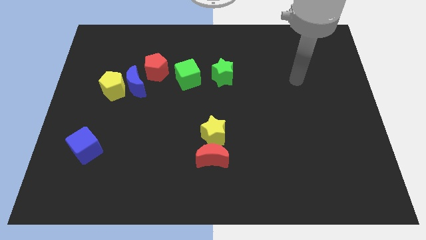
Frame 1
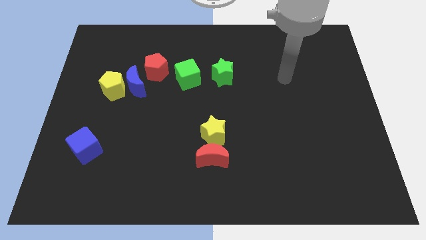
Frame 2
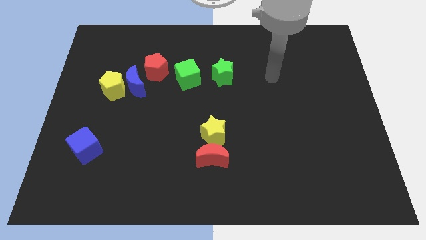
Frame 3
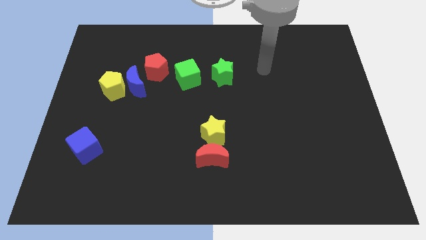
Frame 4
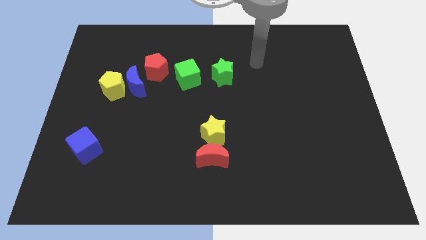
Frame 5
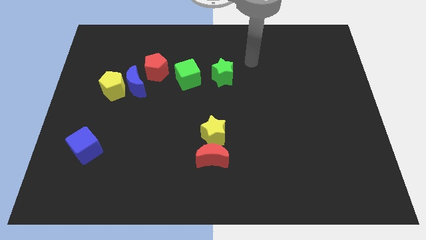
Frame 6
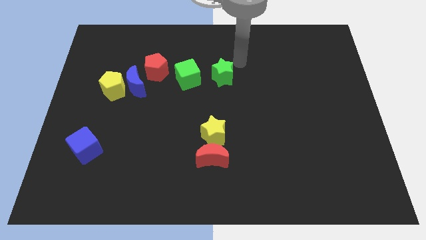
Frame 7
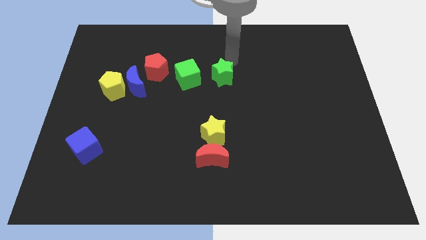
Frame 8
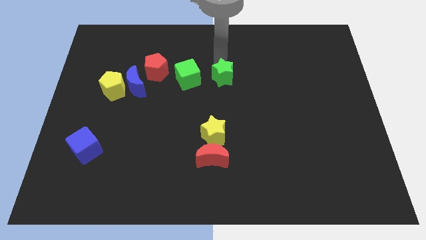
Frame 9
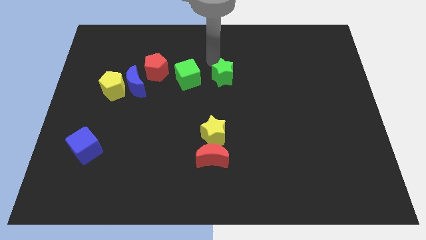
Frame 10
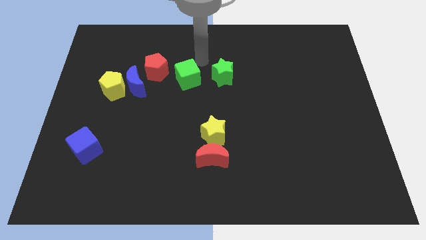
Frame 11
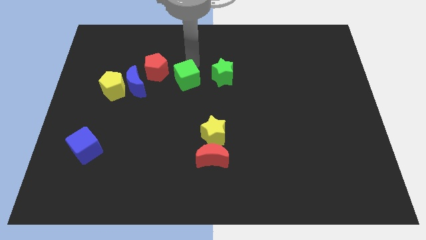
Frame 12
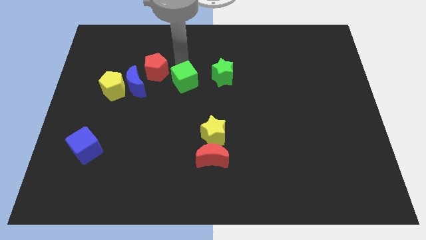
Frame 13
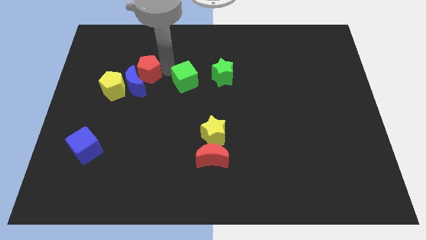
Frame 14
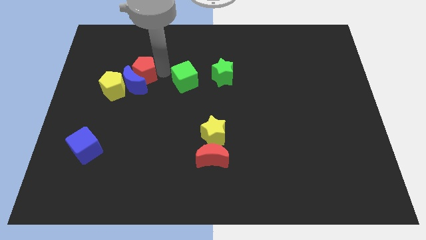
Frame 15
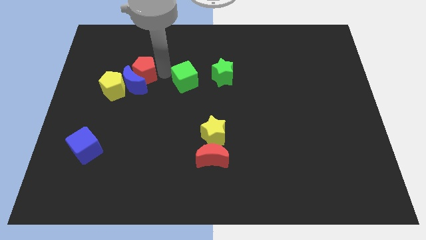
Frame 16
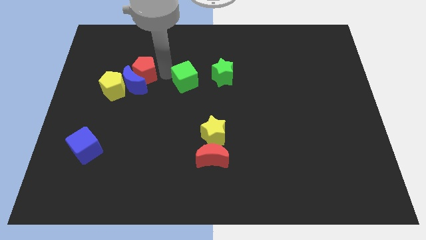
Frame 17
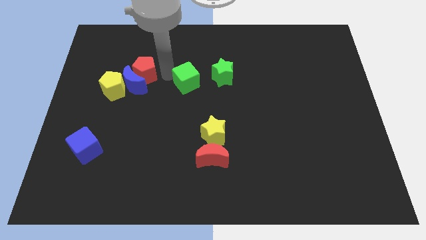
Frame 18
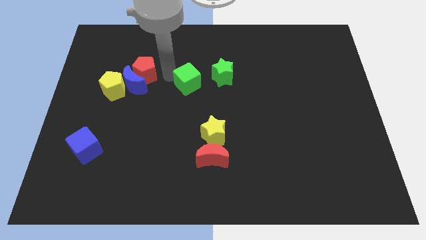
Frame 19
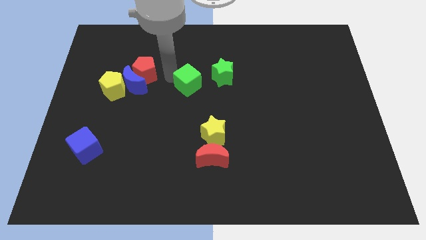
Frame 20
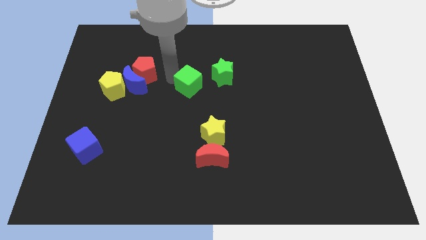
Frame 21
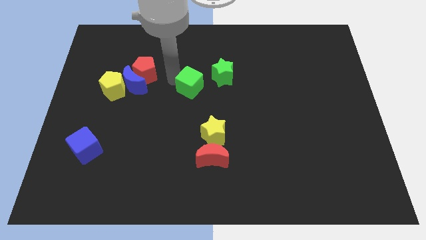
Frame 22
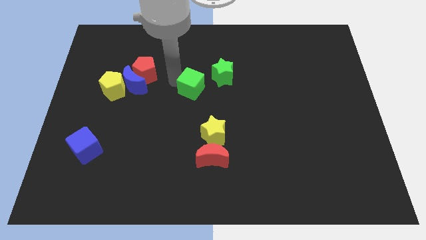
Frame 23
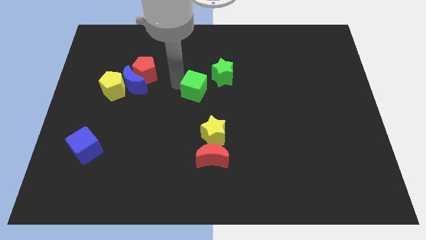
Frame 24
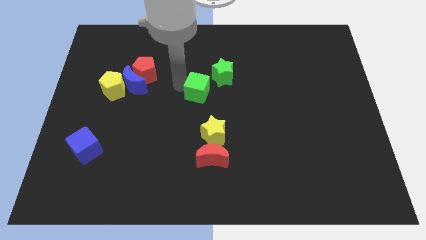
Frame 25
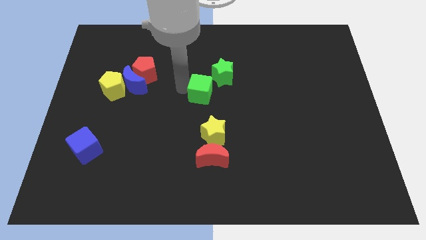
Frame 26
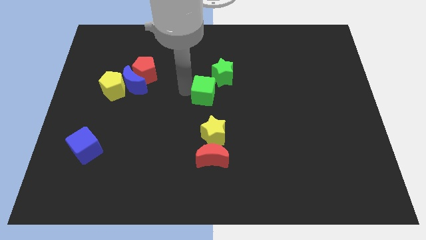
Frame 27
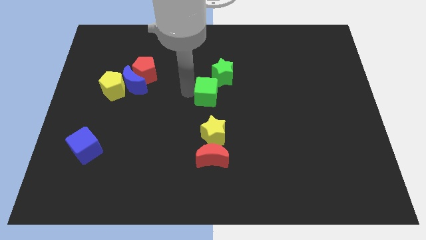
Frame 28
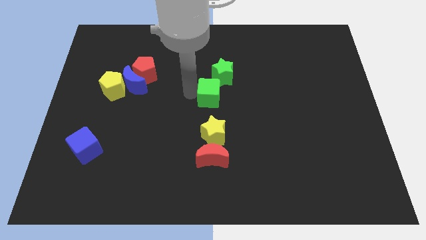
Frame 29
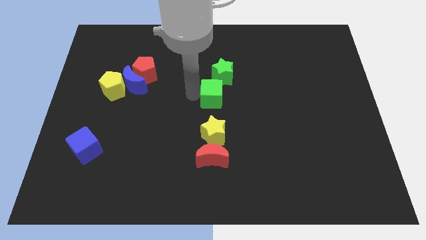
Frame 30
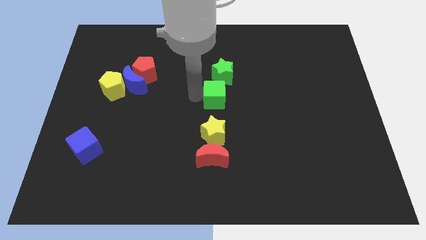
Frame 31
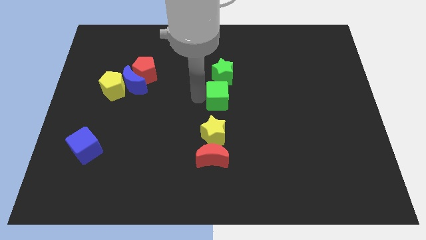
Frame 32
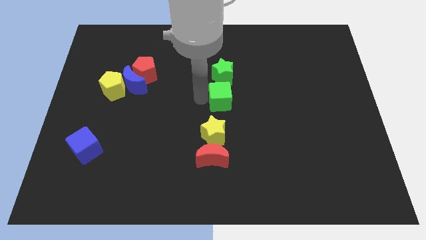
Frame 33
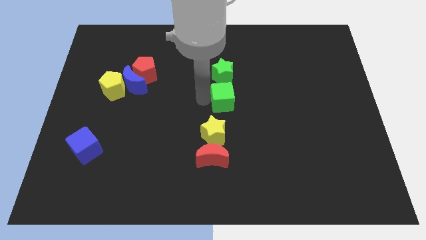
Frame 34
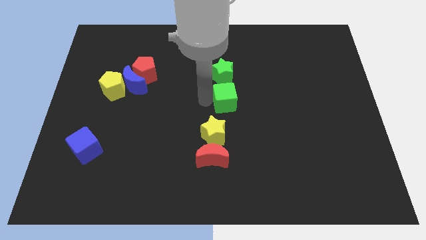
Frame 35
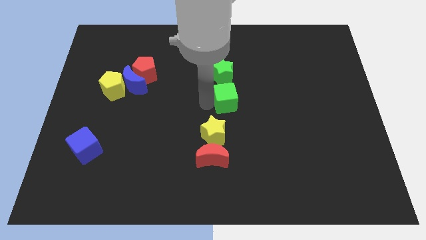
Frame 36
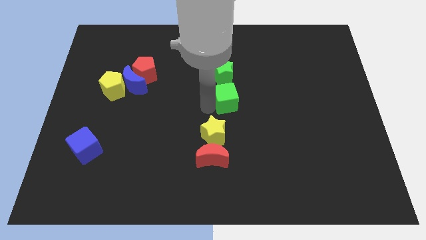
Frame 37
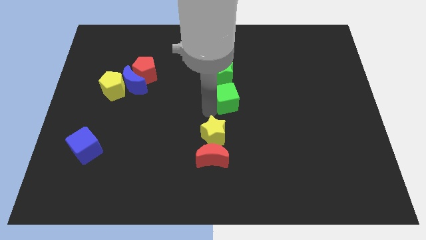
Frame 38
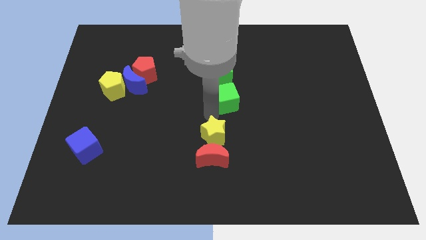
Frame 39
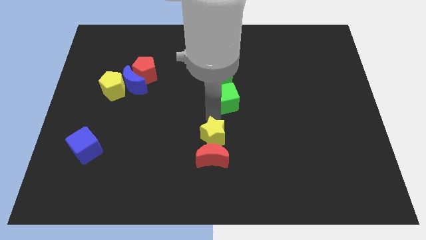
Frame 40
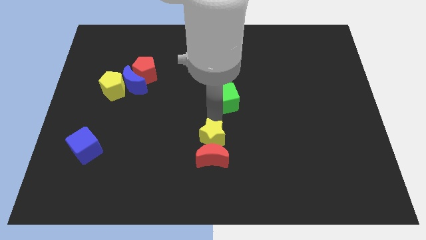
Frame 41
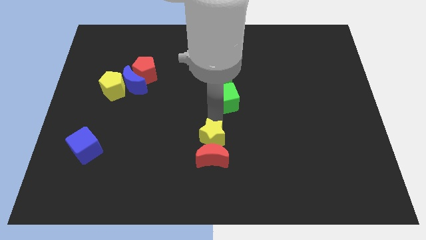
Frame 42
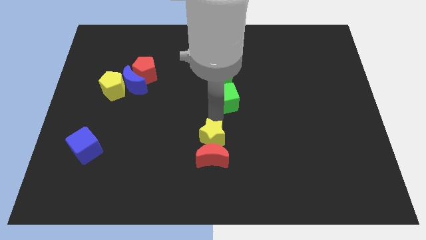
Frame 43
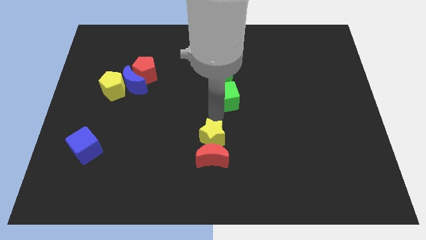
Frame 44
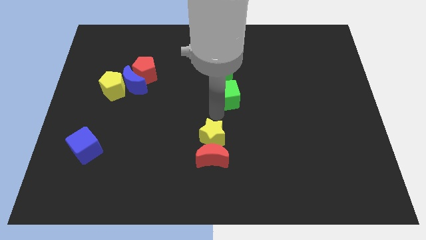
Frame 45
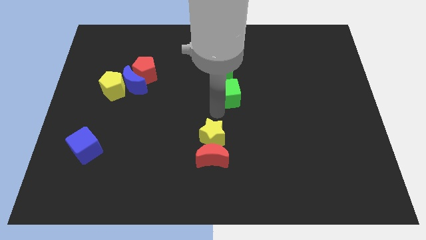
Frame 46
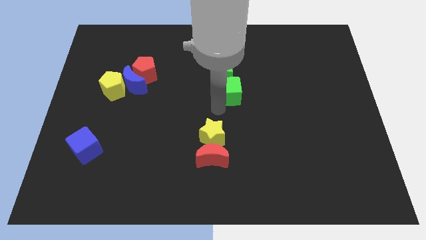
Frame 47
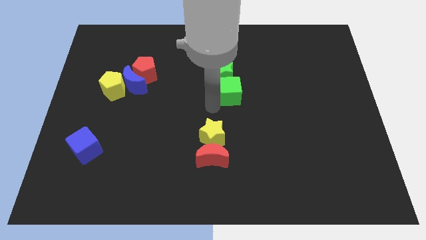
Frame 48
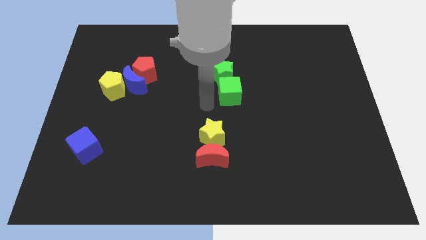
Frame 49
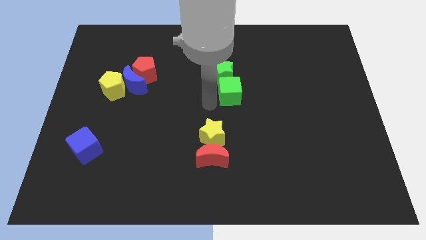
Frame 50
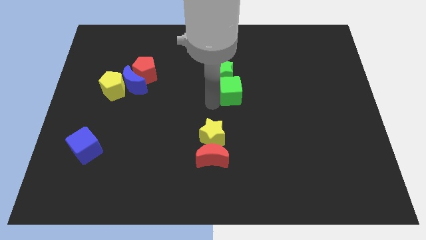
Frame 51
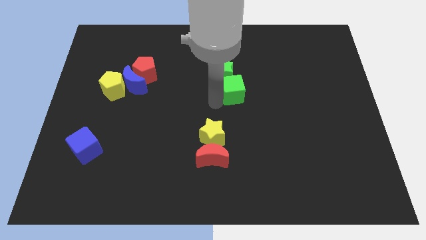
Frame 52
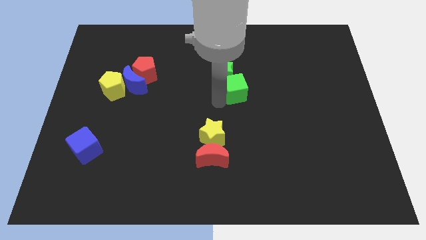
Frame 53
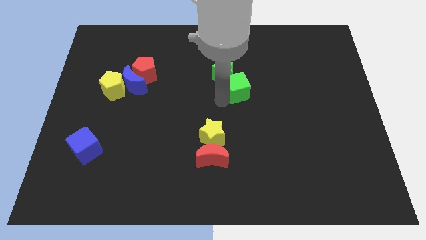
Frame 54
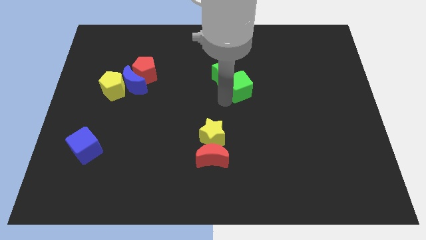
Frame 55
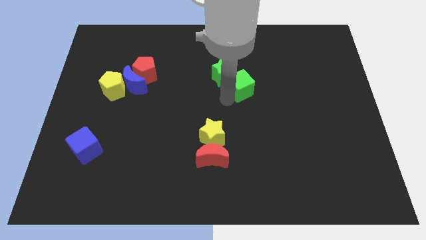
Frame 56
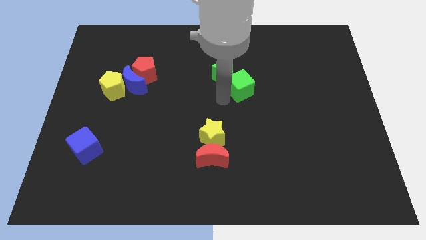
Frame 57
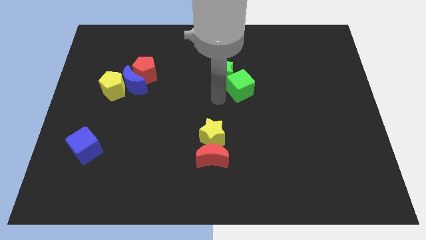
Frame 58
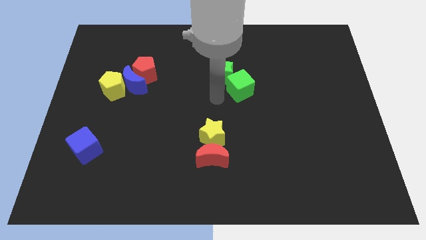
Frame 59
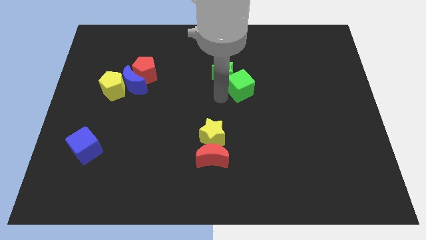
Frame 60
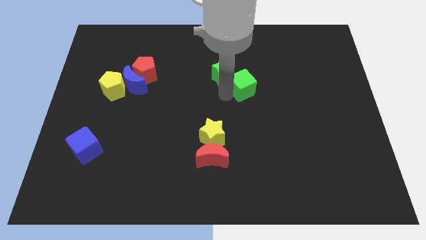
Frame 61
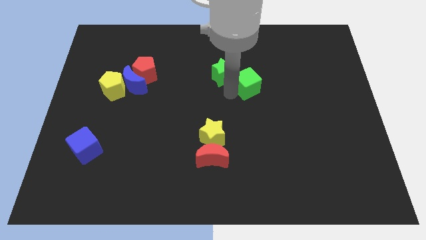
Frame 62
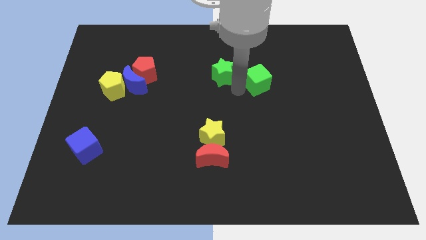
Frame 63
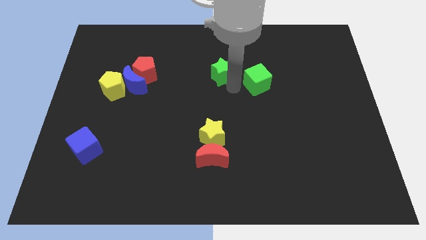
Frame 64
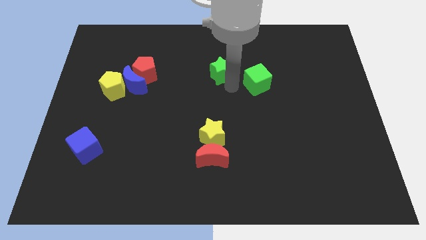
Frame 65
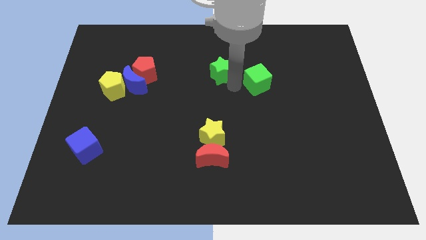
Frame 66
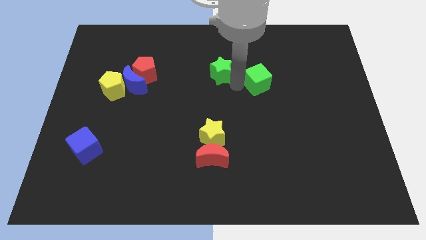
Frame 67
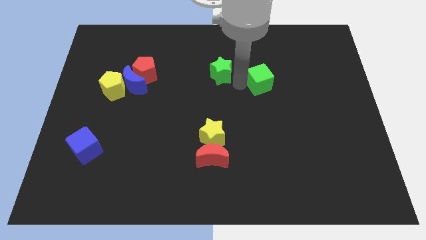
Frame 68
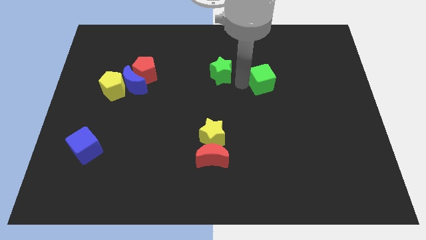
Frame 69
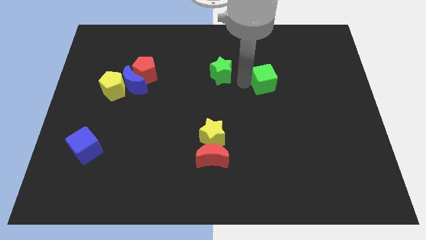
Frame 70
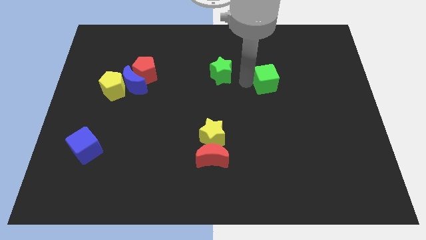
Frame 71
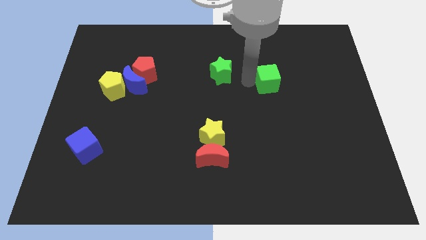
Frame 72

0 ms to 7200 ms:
move the green cube to the right

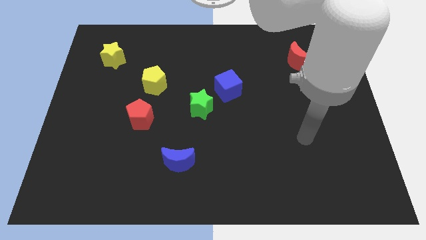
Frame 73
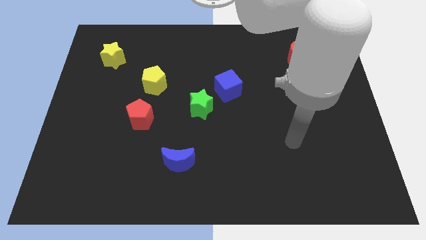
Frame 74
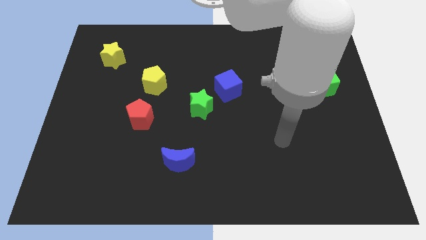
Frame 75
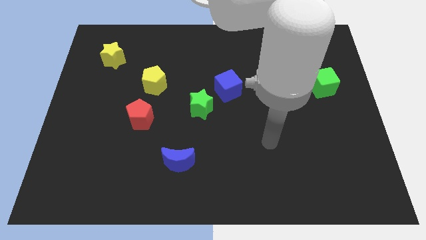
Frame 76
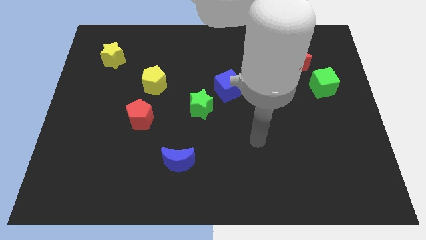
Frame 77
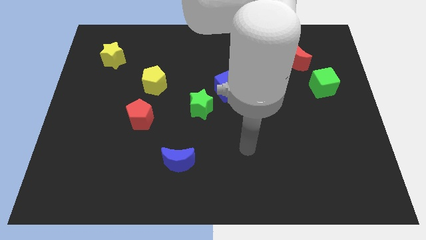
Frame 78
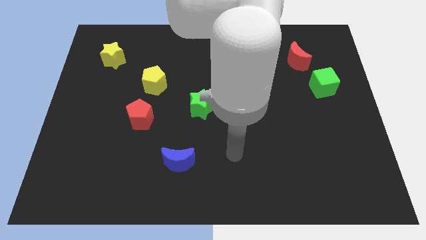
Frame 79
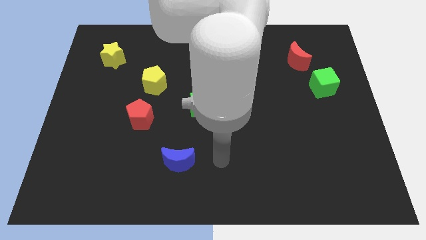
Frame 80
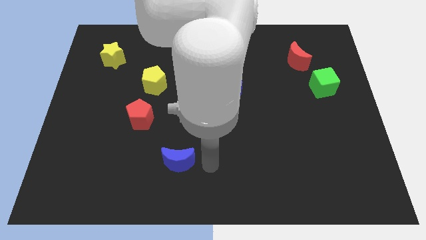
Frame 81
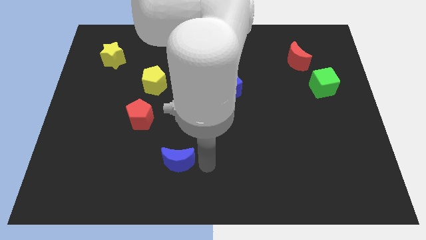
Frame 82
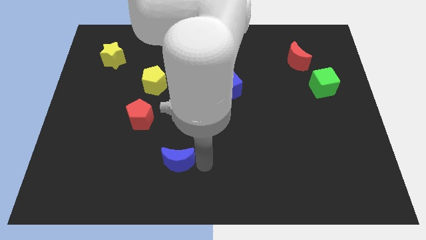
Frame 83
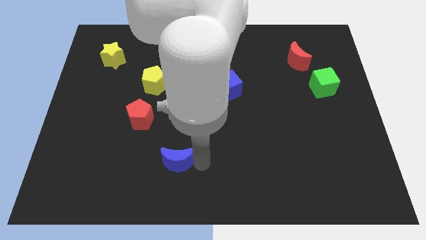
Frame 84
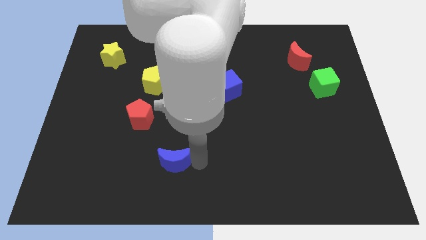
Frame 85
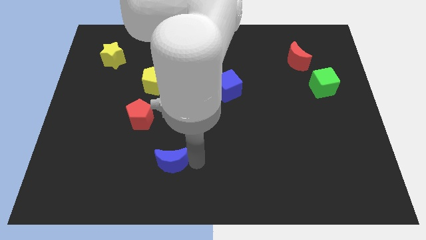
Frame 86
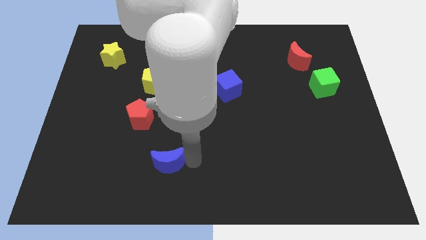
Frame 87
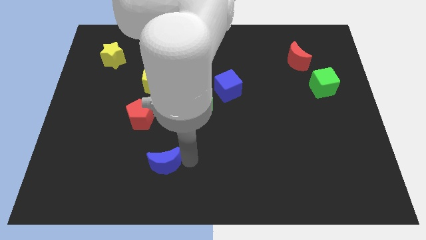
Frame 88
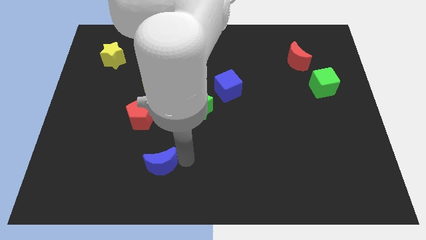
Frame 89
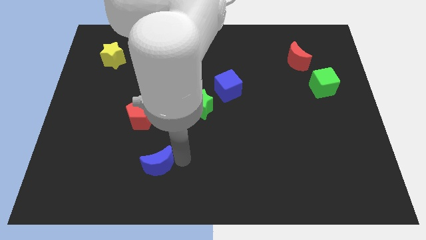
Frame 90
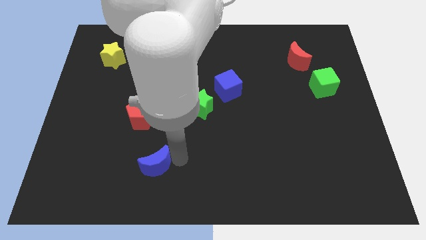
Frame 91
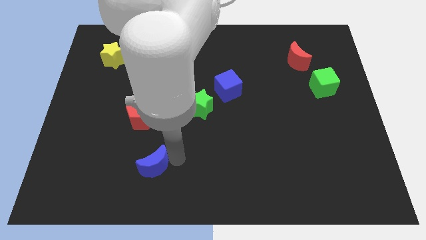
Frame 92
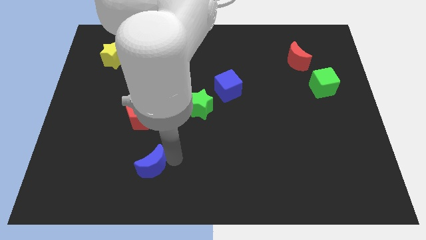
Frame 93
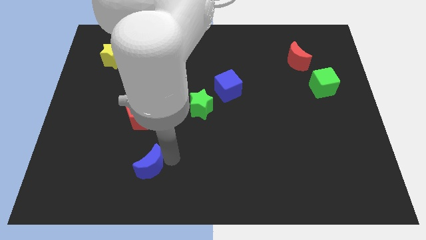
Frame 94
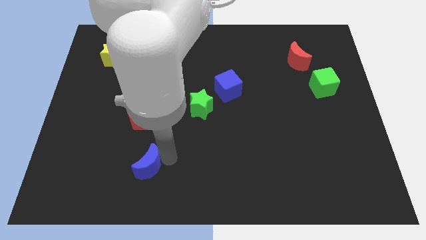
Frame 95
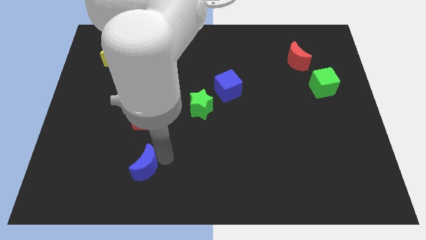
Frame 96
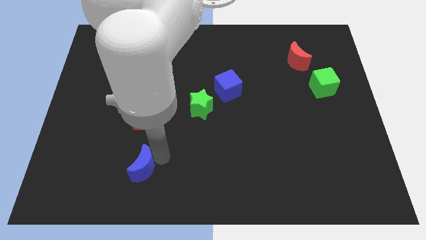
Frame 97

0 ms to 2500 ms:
push the blue moon to the left slightly
